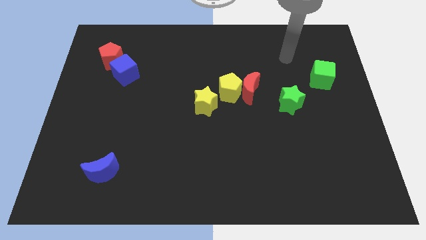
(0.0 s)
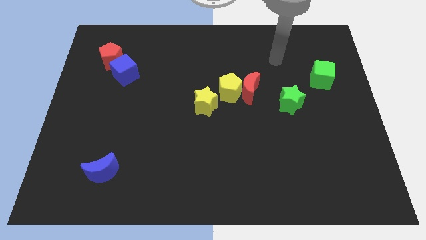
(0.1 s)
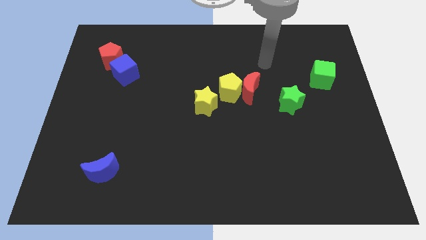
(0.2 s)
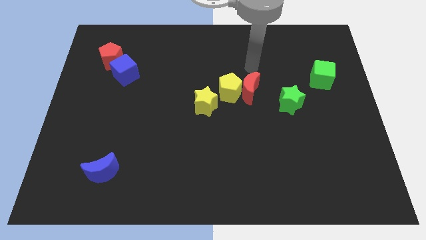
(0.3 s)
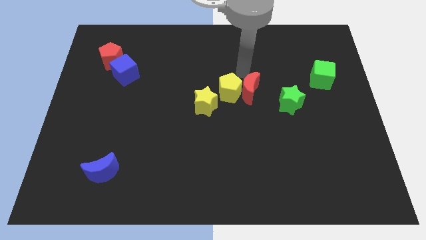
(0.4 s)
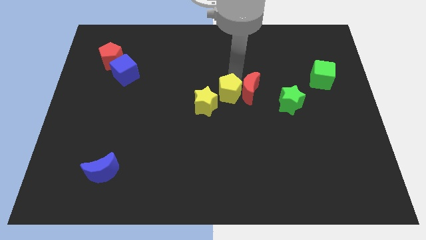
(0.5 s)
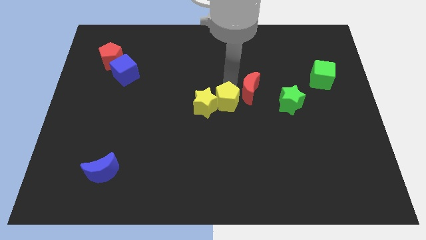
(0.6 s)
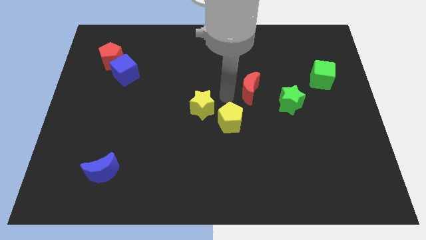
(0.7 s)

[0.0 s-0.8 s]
pull the red moon apart from the yellow pentagon

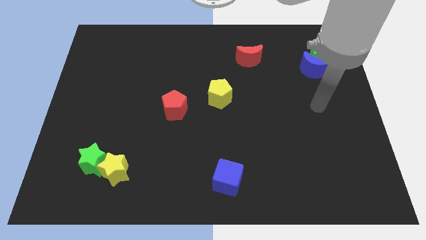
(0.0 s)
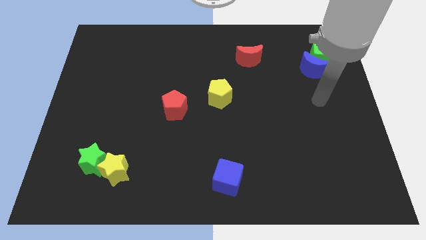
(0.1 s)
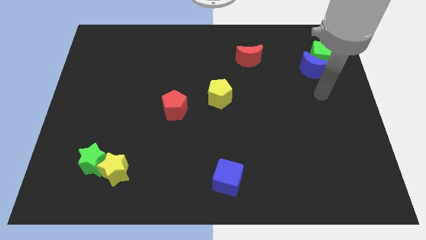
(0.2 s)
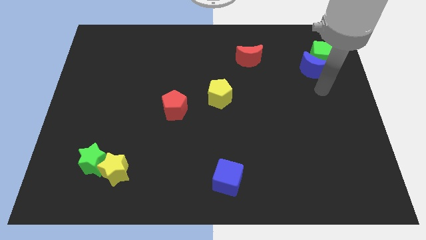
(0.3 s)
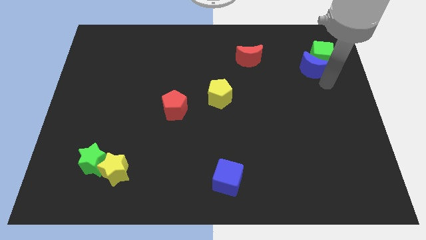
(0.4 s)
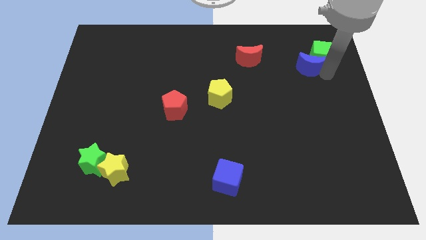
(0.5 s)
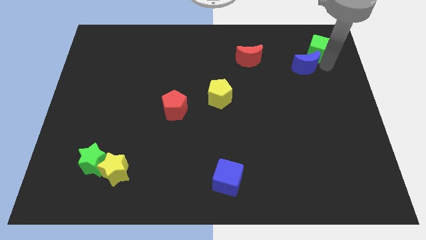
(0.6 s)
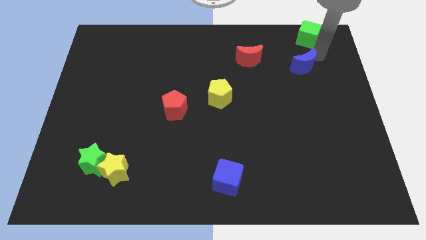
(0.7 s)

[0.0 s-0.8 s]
pull the blue moon apart from the green cube

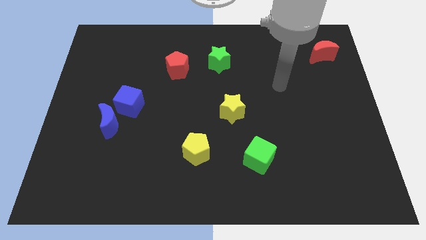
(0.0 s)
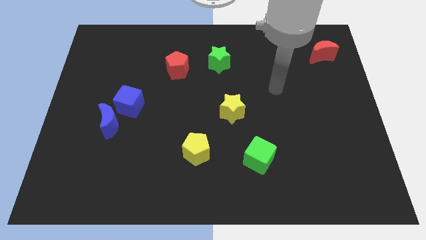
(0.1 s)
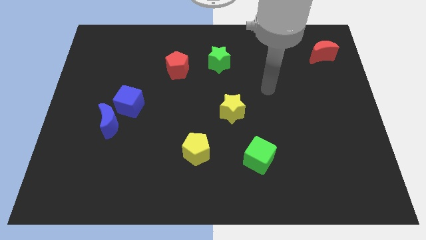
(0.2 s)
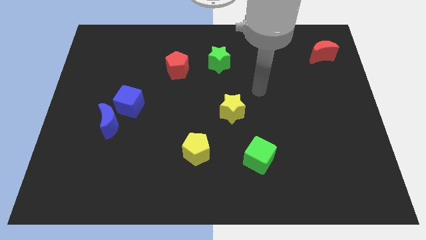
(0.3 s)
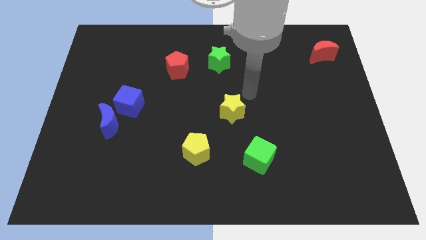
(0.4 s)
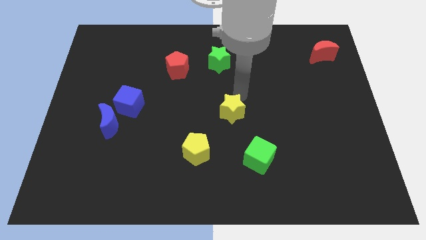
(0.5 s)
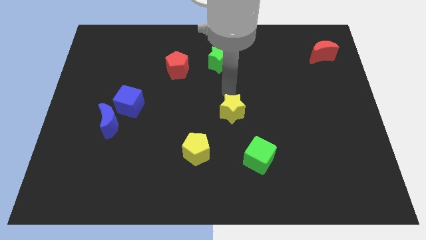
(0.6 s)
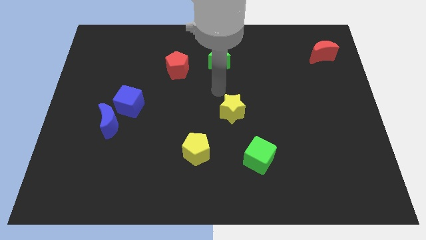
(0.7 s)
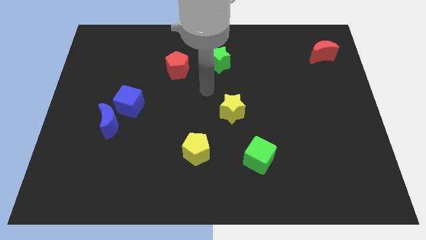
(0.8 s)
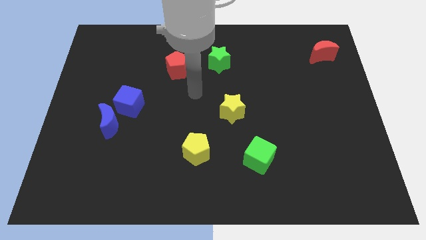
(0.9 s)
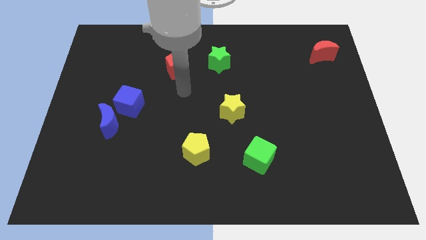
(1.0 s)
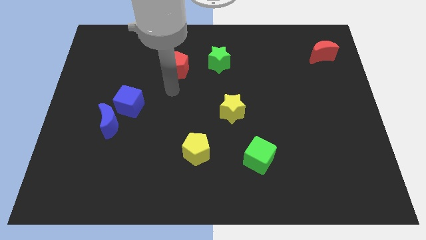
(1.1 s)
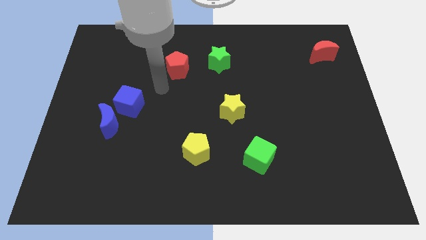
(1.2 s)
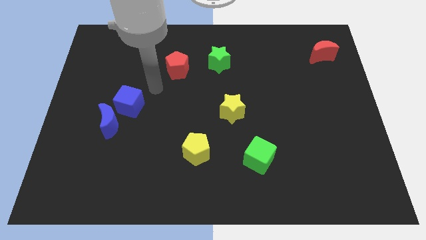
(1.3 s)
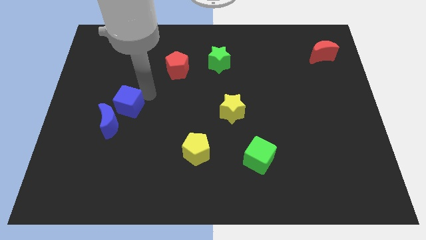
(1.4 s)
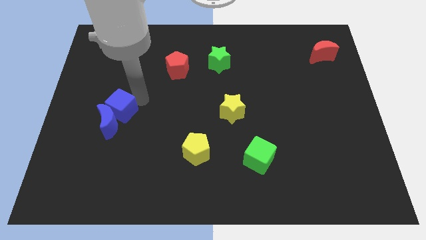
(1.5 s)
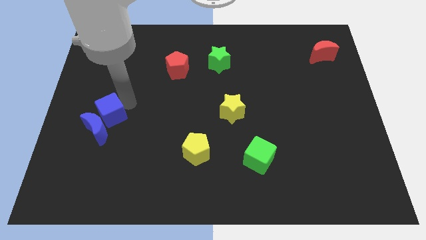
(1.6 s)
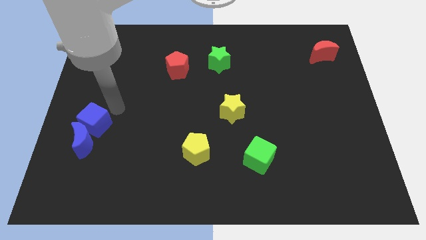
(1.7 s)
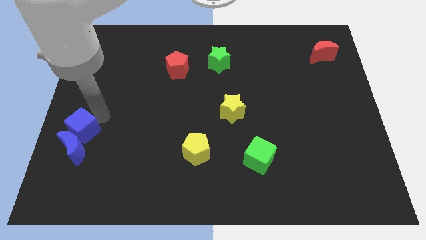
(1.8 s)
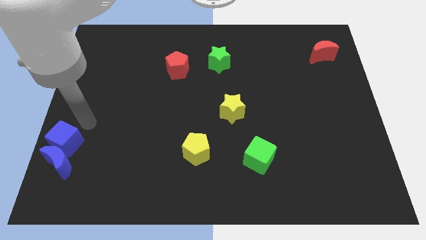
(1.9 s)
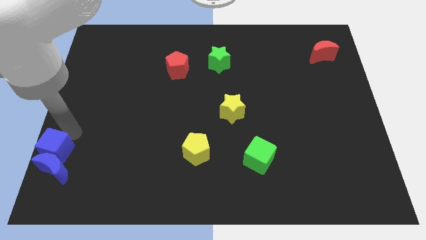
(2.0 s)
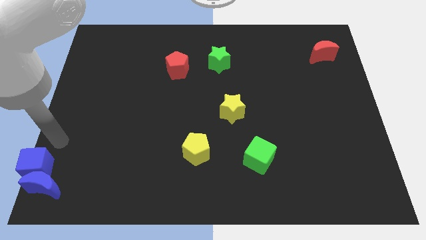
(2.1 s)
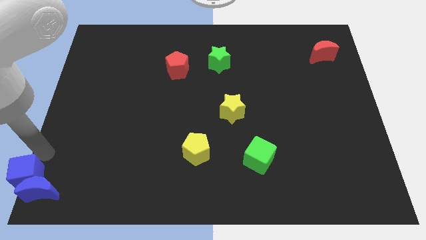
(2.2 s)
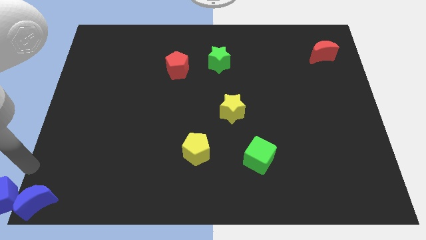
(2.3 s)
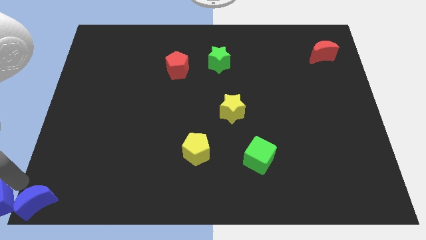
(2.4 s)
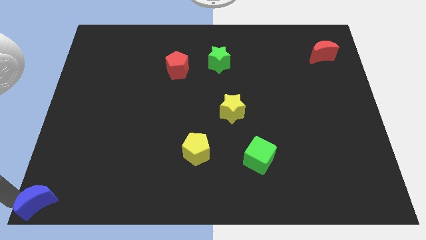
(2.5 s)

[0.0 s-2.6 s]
move the blue moon away from the blue cube

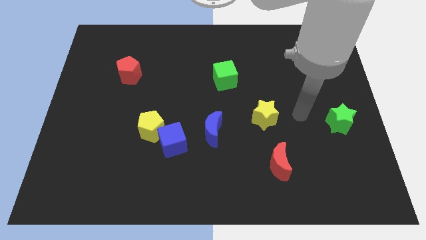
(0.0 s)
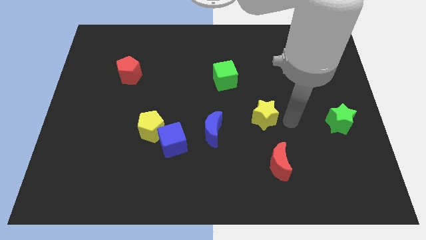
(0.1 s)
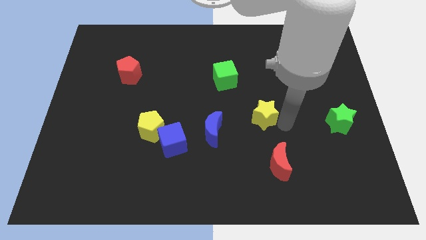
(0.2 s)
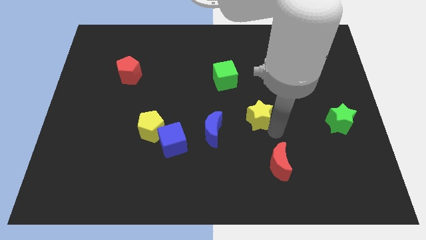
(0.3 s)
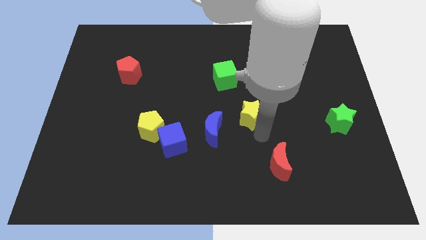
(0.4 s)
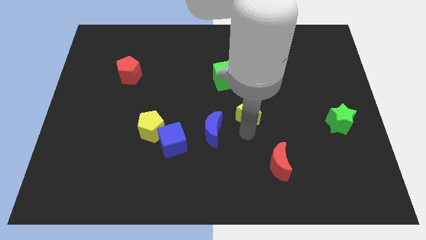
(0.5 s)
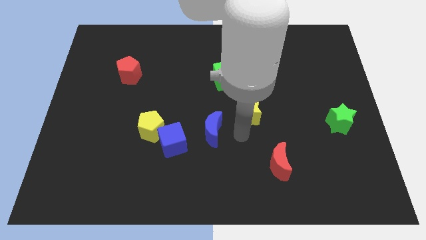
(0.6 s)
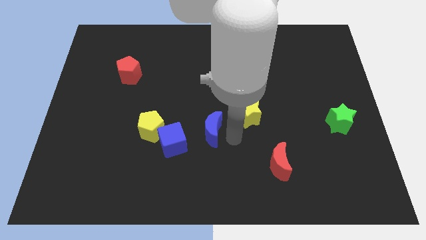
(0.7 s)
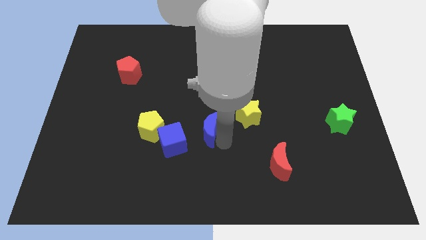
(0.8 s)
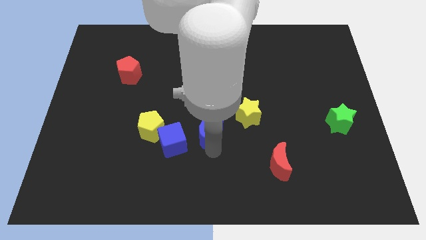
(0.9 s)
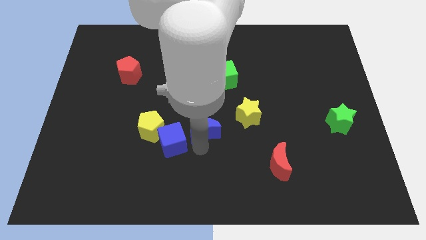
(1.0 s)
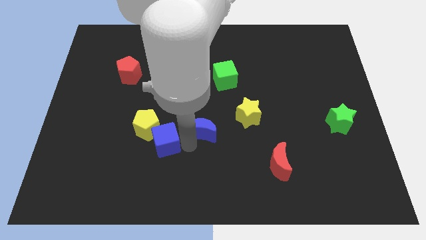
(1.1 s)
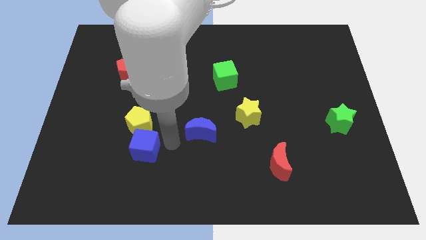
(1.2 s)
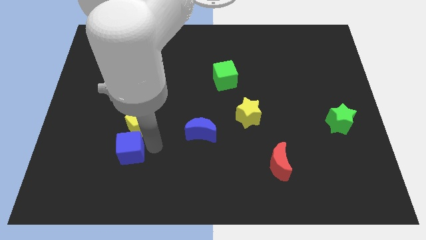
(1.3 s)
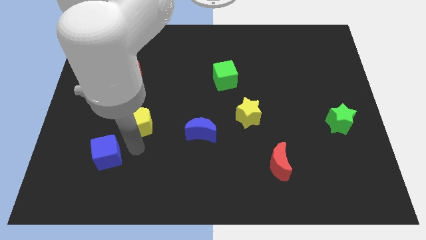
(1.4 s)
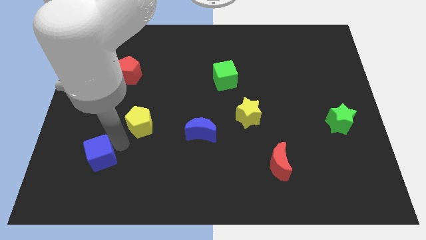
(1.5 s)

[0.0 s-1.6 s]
separate the yellow pentagon from the blue cube

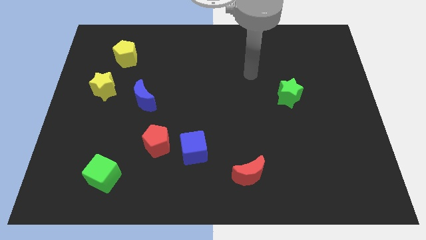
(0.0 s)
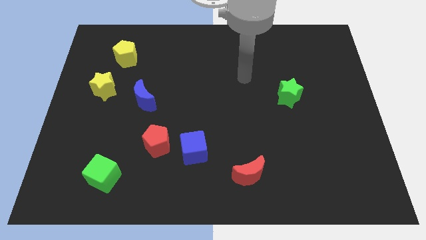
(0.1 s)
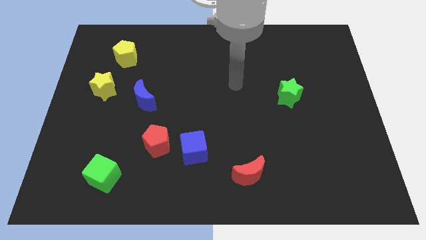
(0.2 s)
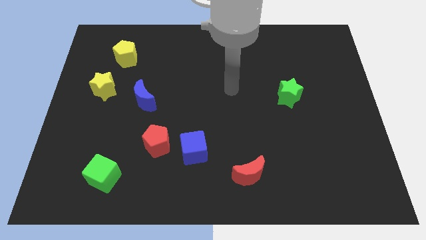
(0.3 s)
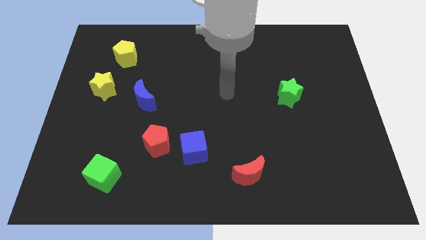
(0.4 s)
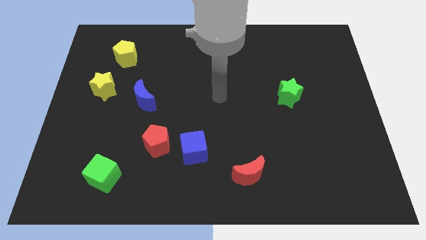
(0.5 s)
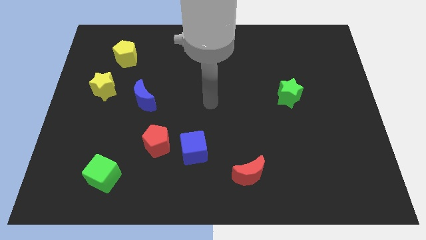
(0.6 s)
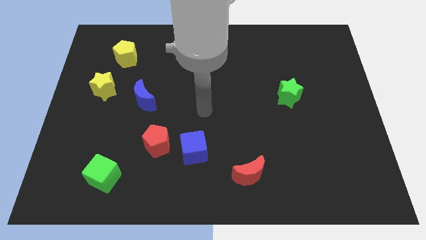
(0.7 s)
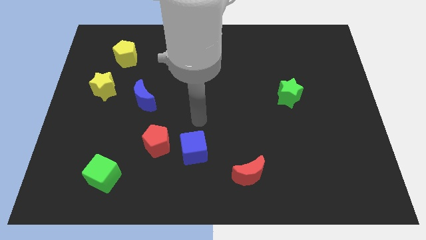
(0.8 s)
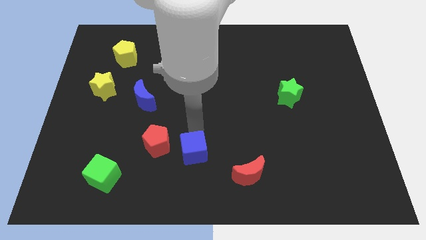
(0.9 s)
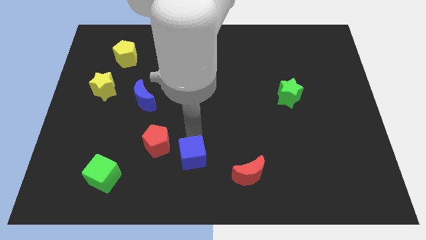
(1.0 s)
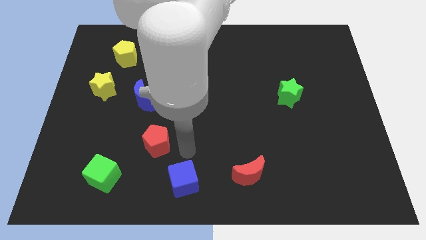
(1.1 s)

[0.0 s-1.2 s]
pull the red pentagon apart from the blue cube

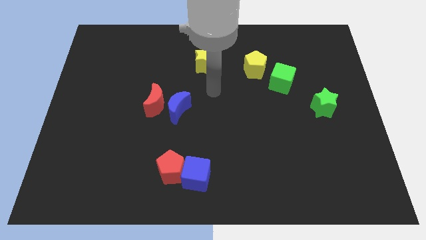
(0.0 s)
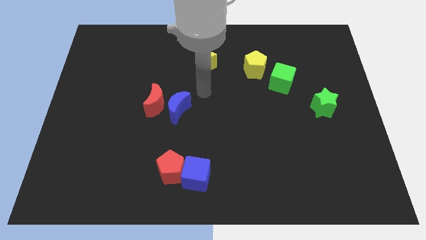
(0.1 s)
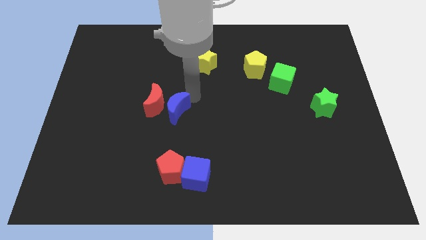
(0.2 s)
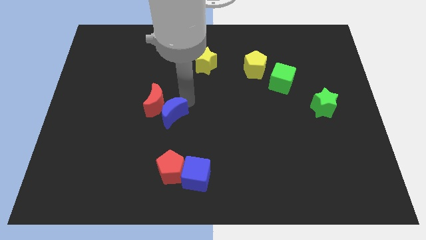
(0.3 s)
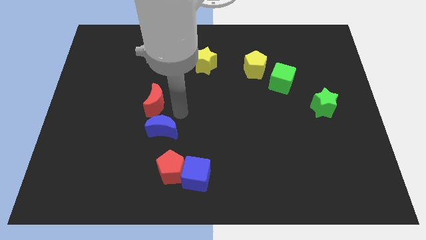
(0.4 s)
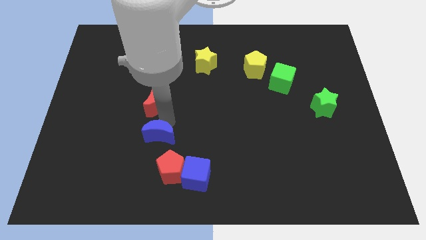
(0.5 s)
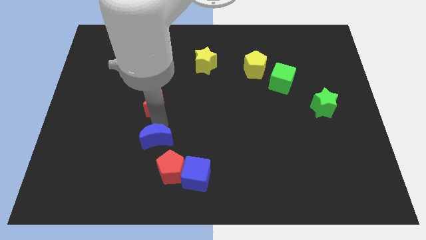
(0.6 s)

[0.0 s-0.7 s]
pull the red moon apart from the blue moon

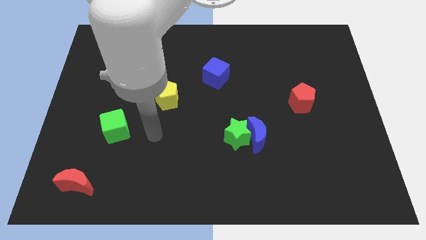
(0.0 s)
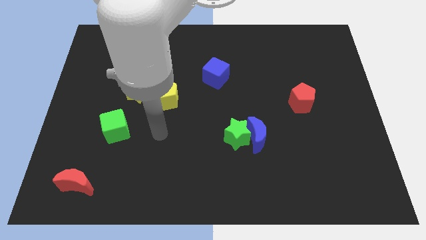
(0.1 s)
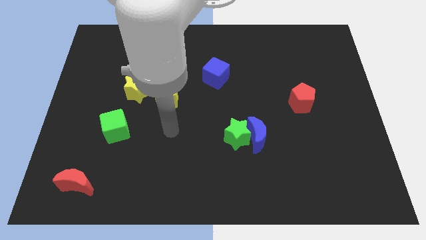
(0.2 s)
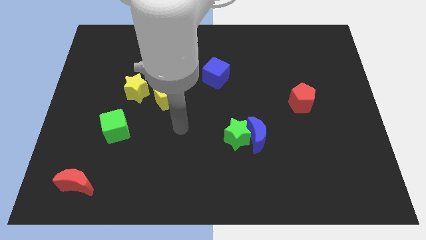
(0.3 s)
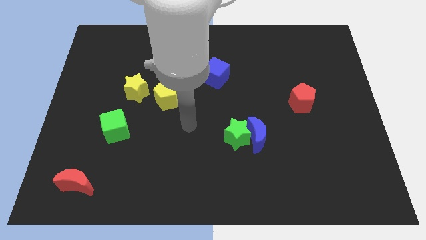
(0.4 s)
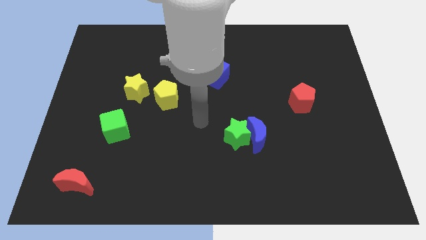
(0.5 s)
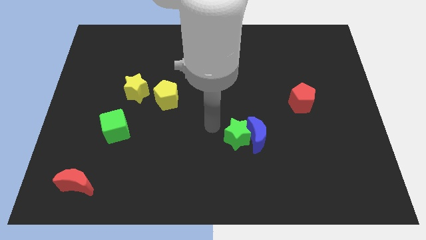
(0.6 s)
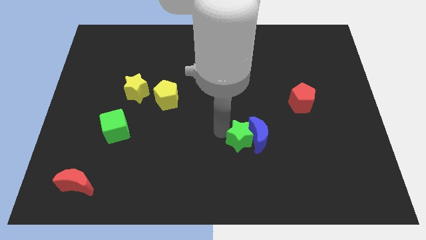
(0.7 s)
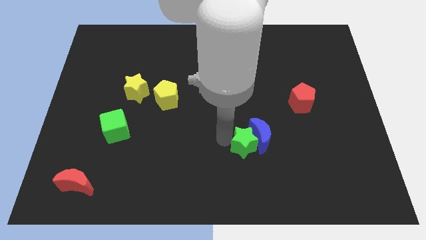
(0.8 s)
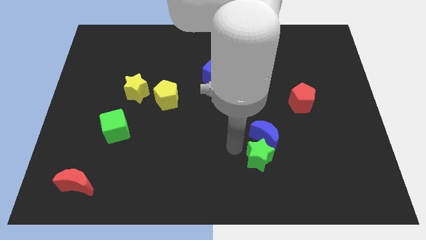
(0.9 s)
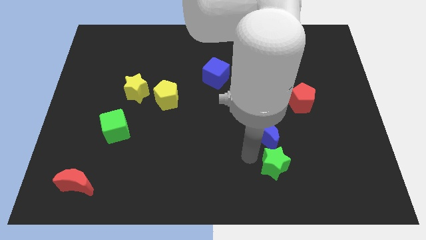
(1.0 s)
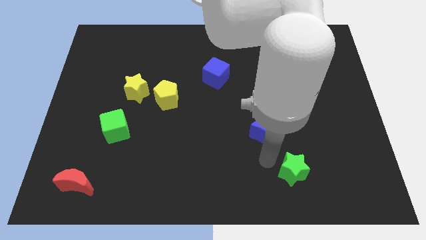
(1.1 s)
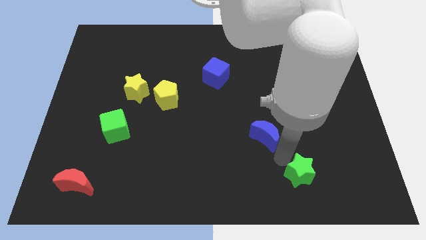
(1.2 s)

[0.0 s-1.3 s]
pull the blue moon apart from the green star

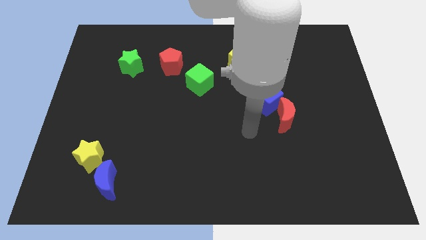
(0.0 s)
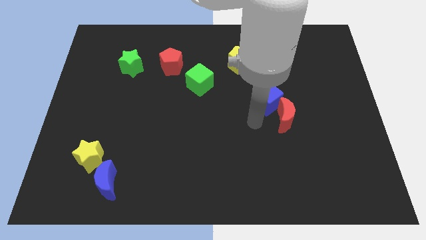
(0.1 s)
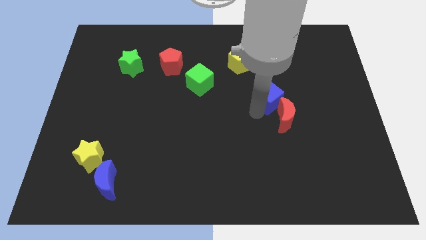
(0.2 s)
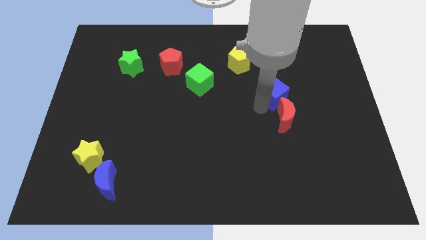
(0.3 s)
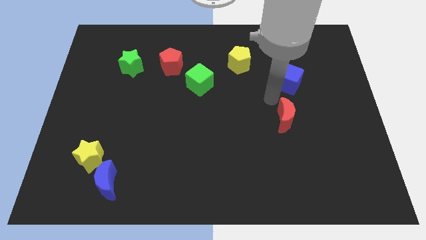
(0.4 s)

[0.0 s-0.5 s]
separate the red moon from the blue cube
